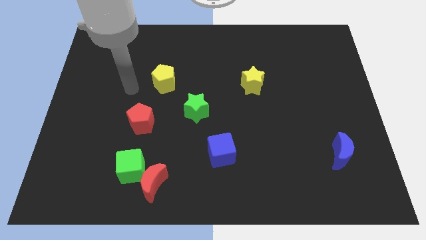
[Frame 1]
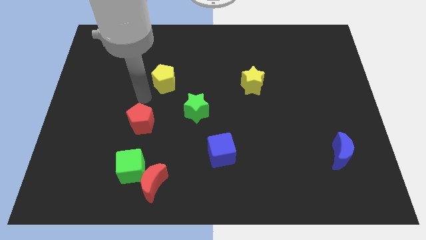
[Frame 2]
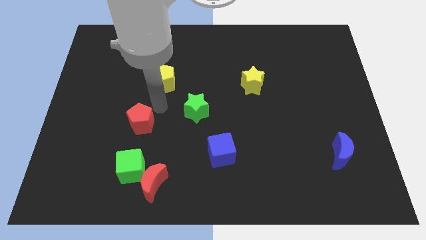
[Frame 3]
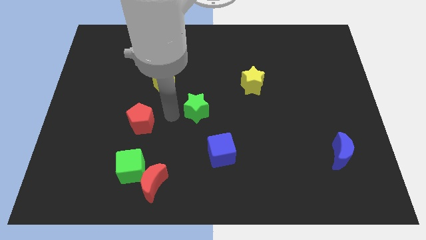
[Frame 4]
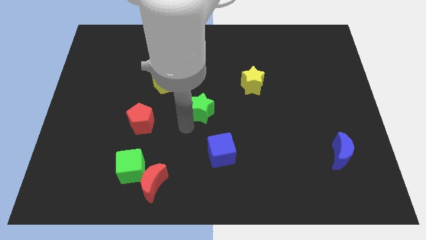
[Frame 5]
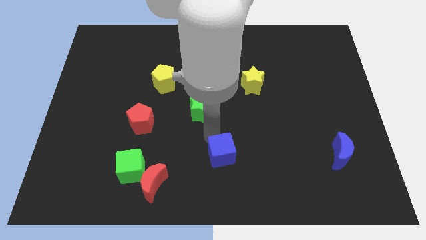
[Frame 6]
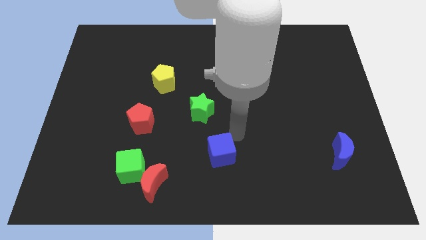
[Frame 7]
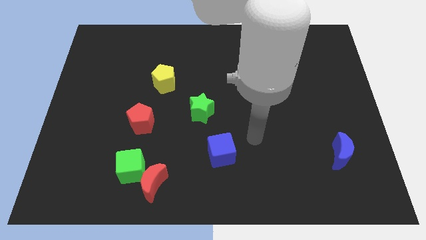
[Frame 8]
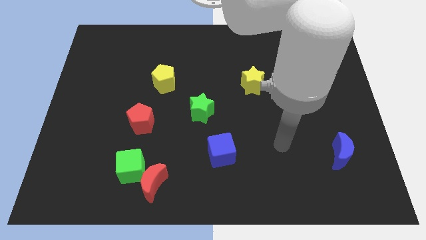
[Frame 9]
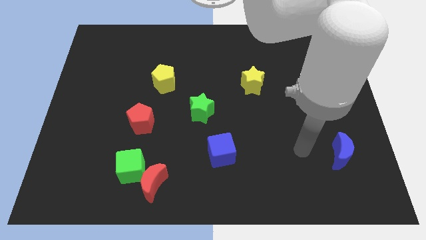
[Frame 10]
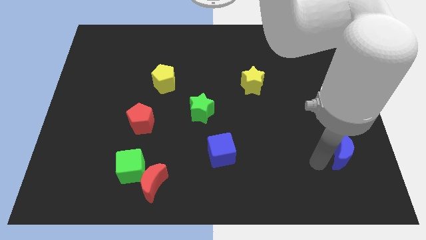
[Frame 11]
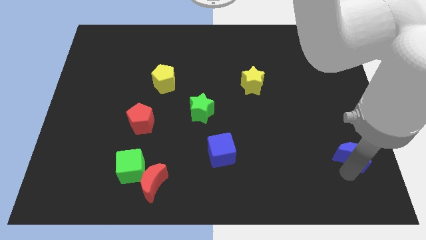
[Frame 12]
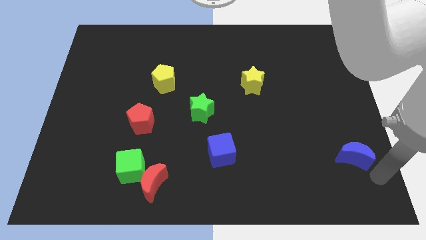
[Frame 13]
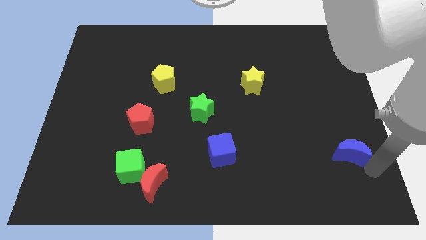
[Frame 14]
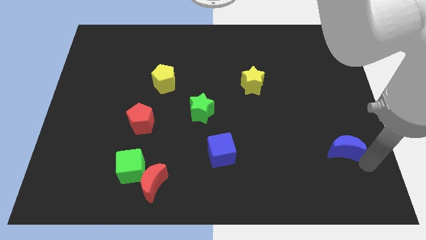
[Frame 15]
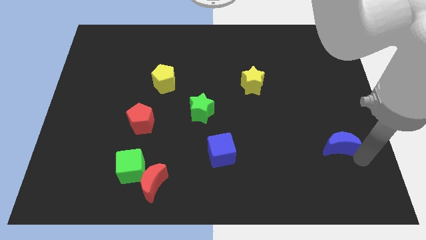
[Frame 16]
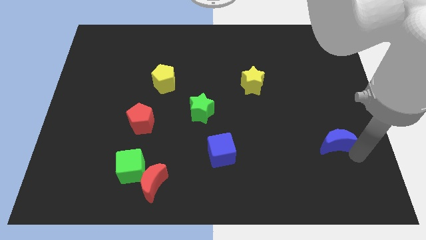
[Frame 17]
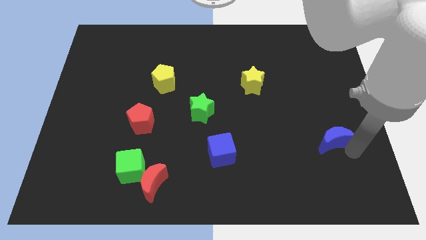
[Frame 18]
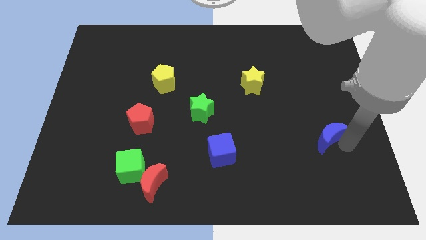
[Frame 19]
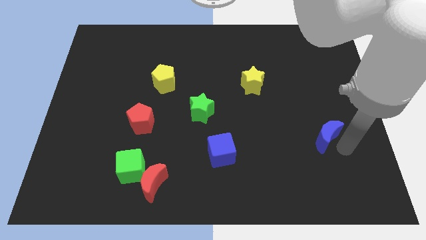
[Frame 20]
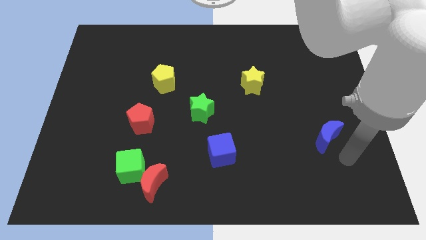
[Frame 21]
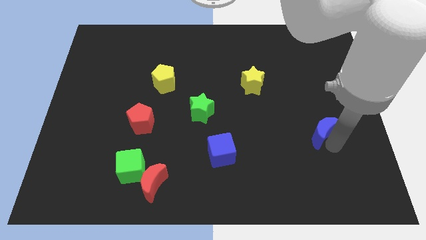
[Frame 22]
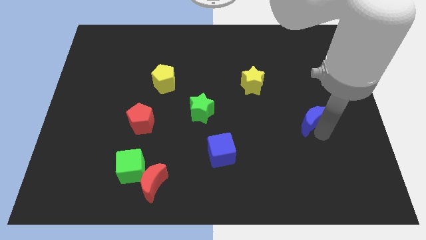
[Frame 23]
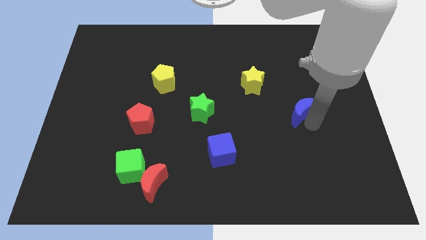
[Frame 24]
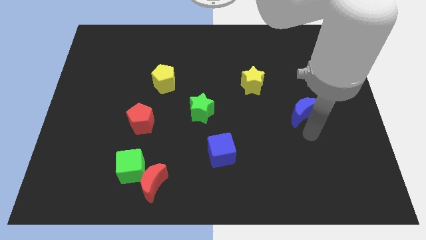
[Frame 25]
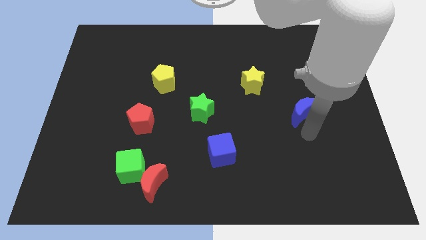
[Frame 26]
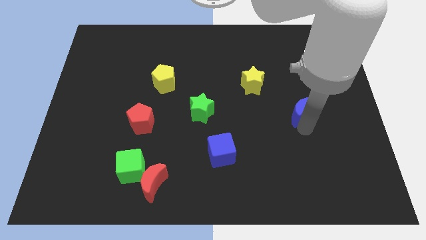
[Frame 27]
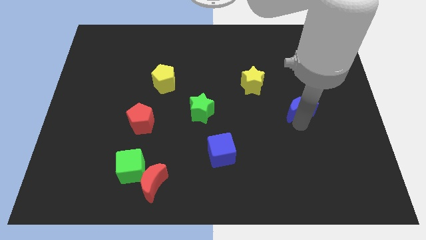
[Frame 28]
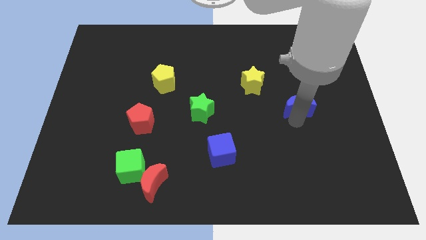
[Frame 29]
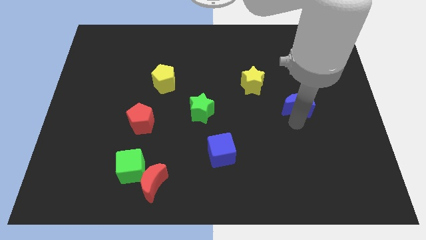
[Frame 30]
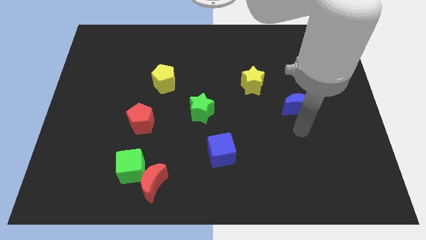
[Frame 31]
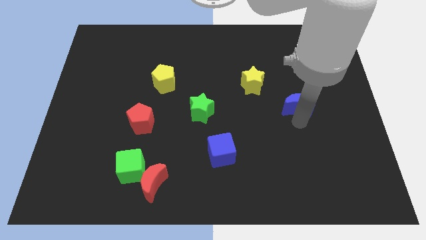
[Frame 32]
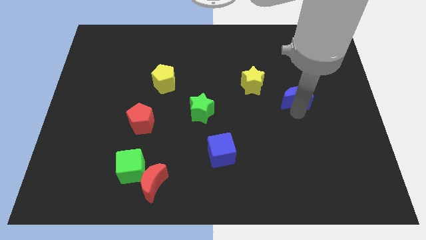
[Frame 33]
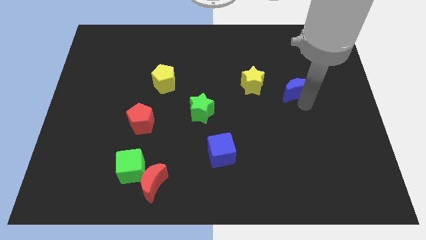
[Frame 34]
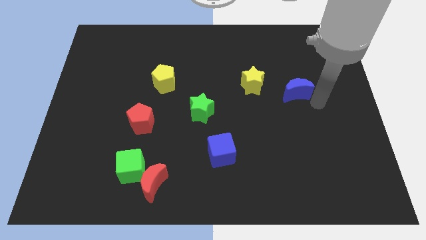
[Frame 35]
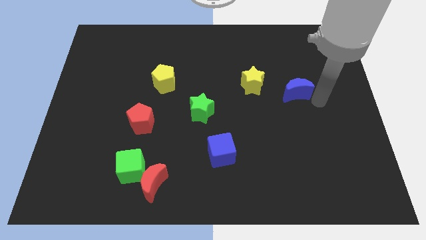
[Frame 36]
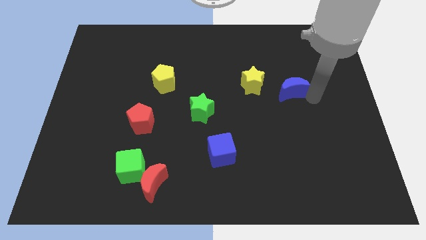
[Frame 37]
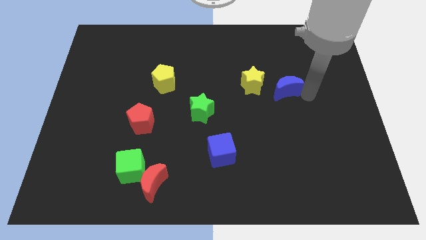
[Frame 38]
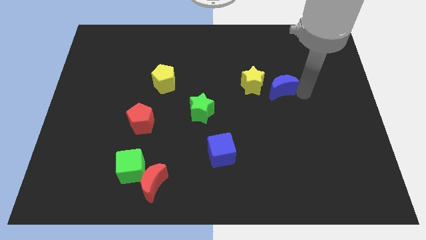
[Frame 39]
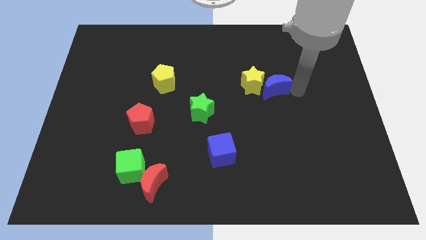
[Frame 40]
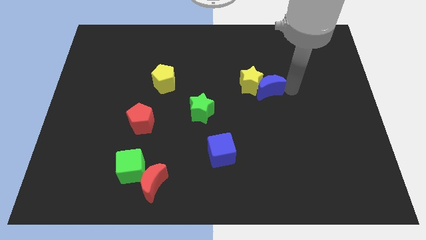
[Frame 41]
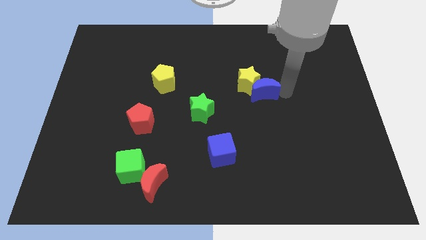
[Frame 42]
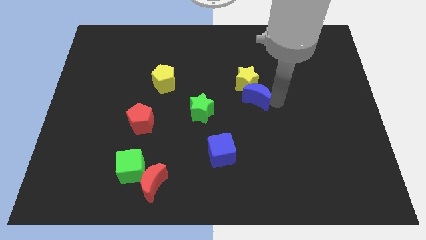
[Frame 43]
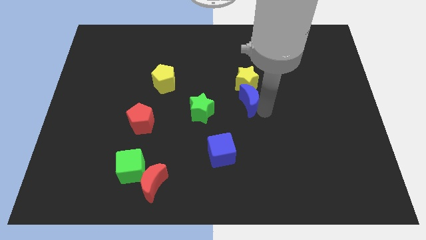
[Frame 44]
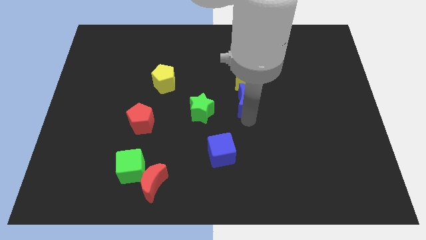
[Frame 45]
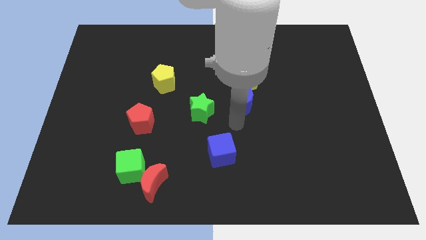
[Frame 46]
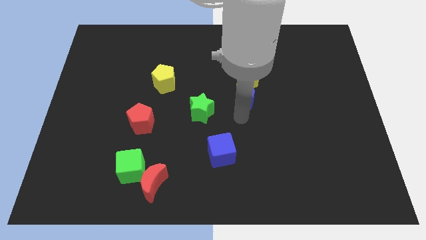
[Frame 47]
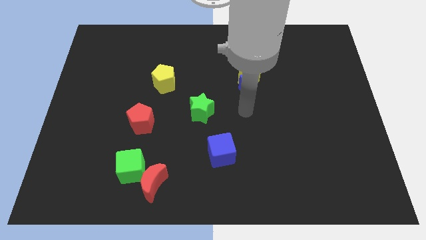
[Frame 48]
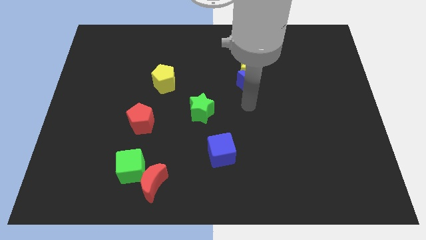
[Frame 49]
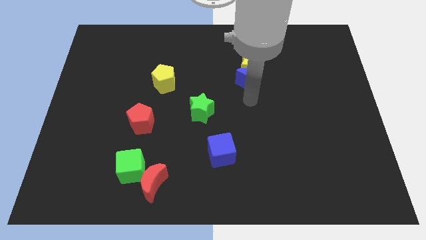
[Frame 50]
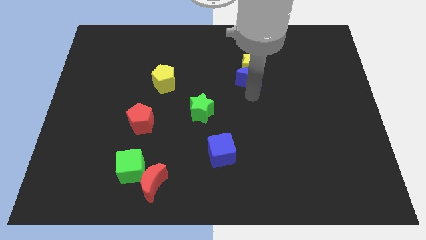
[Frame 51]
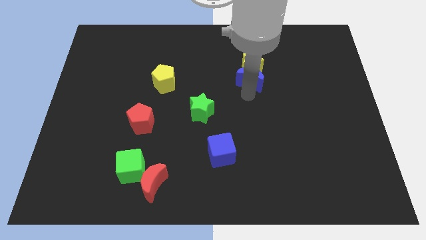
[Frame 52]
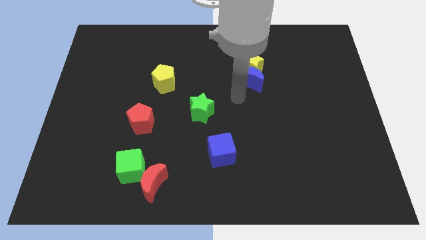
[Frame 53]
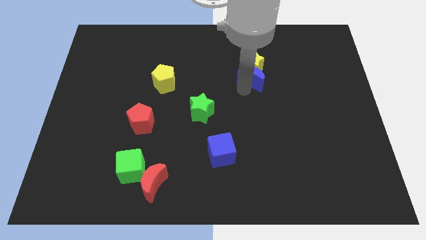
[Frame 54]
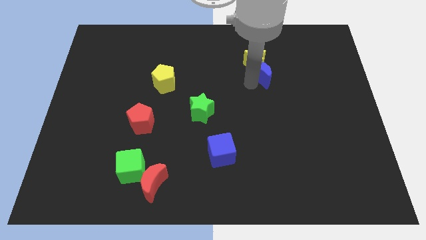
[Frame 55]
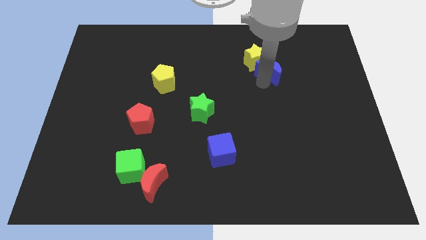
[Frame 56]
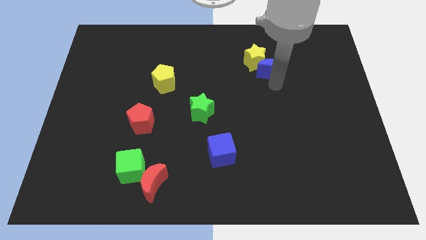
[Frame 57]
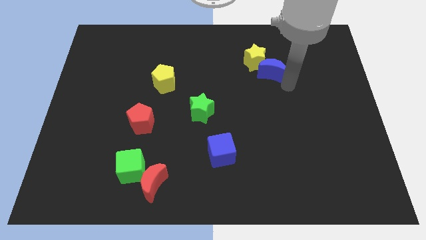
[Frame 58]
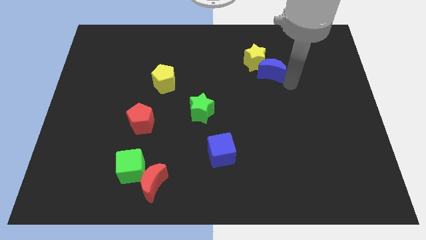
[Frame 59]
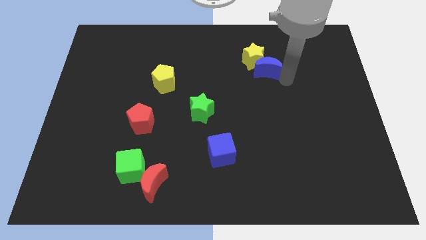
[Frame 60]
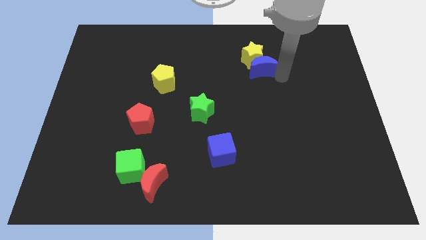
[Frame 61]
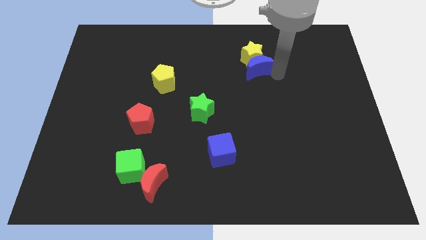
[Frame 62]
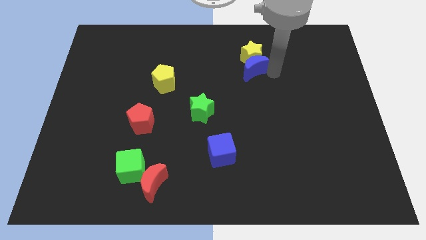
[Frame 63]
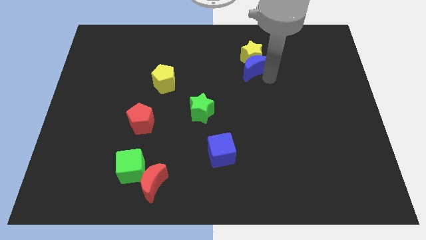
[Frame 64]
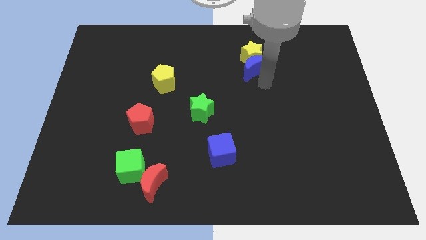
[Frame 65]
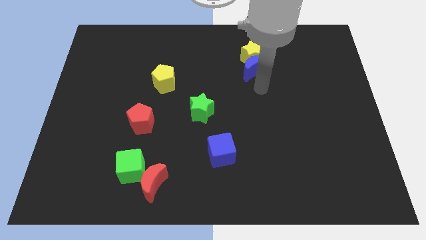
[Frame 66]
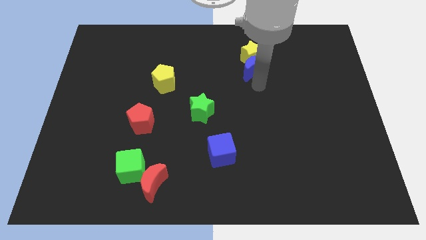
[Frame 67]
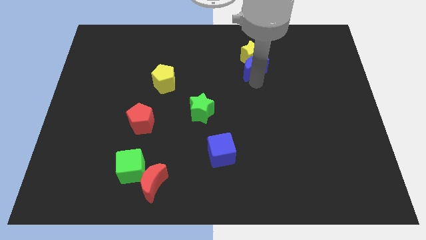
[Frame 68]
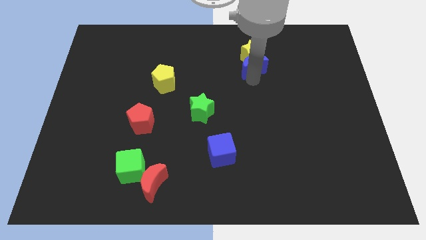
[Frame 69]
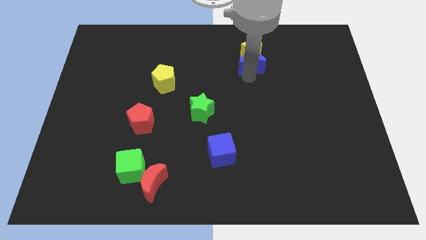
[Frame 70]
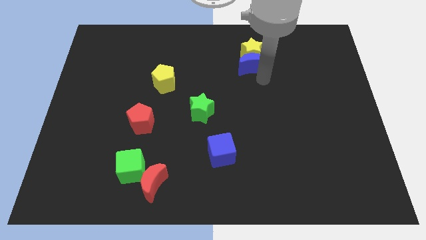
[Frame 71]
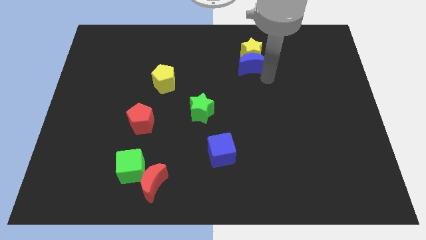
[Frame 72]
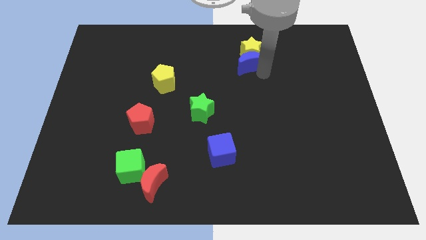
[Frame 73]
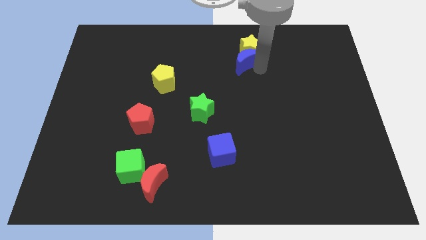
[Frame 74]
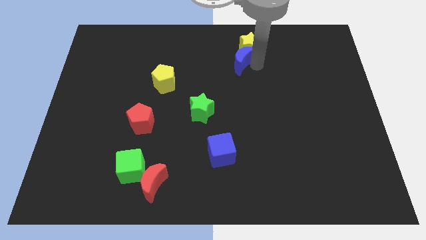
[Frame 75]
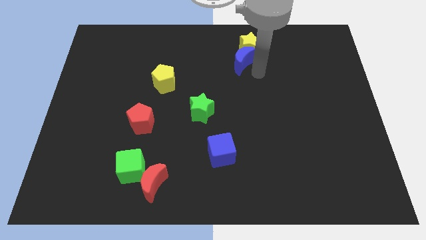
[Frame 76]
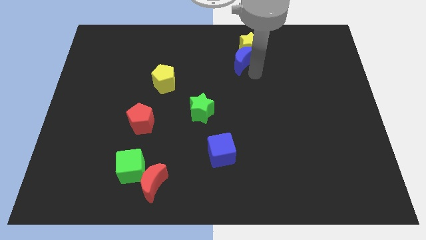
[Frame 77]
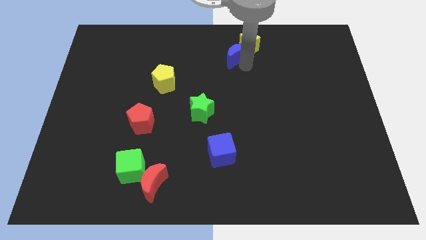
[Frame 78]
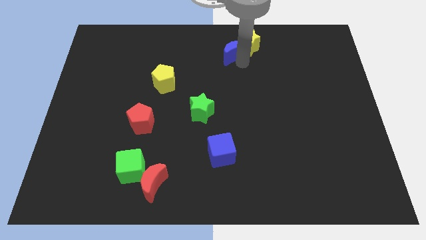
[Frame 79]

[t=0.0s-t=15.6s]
push the blue moon to the top side
